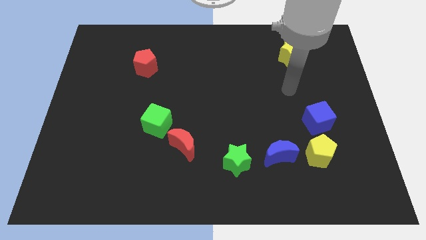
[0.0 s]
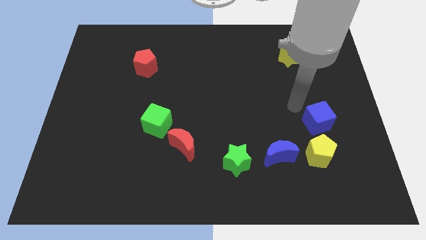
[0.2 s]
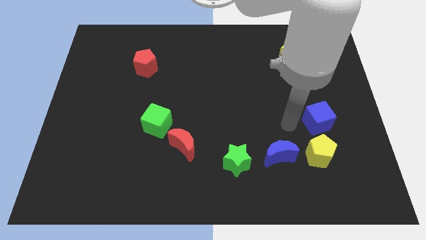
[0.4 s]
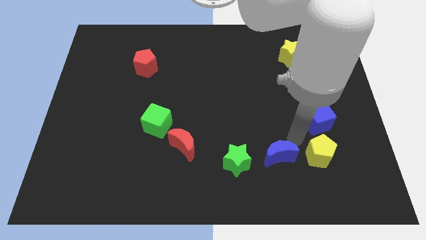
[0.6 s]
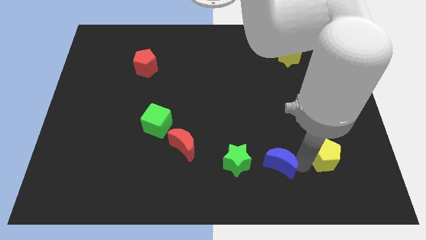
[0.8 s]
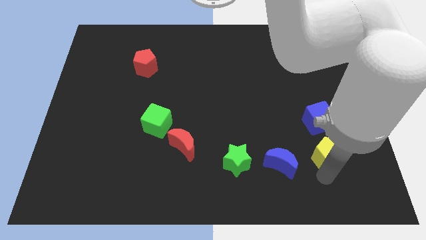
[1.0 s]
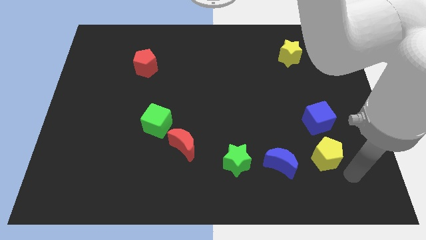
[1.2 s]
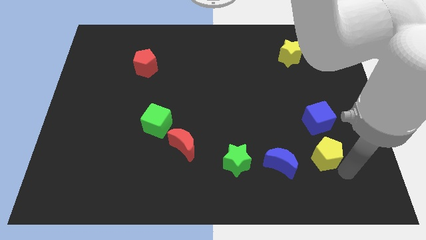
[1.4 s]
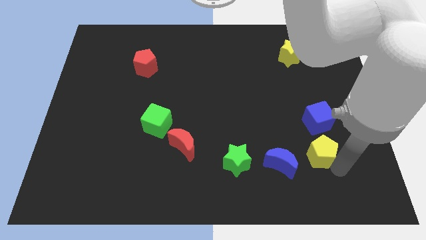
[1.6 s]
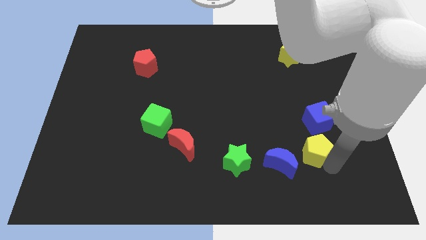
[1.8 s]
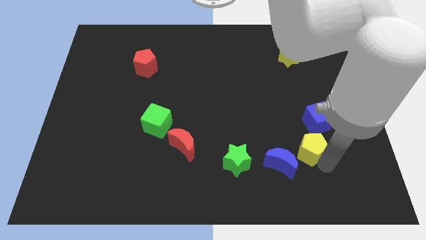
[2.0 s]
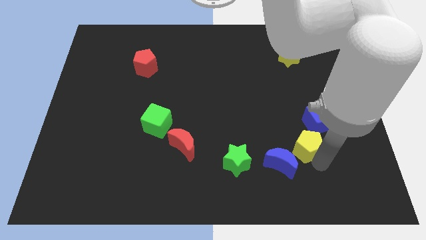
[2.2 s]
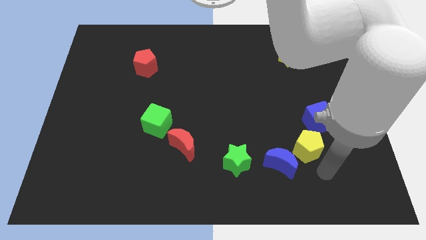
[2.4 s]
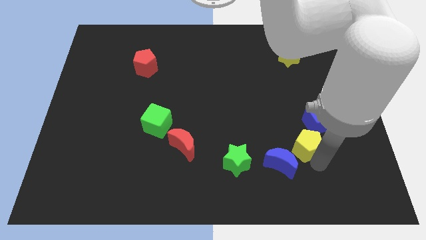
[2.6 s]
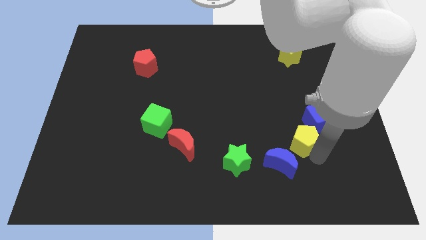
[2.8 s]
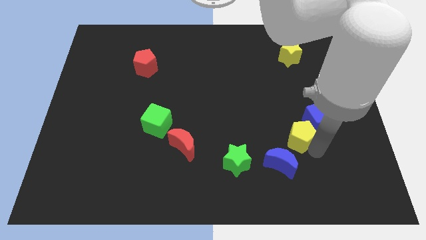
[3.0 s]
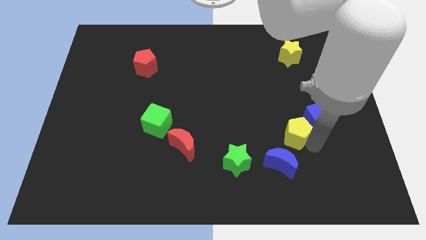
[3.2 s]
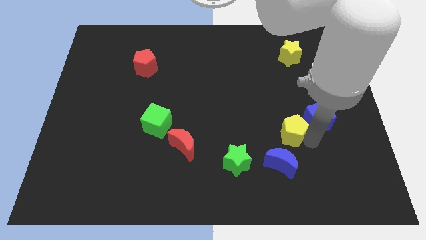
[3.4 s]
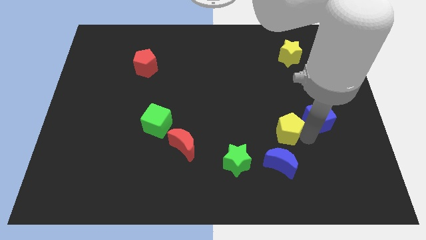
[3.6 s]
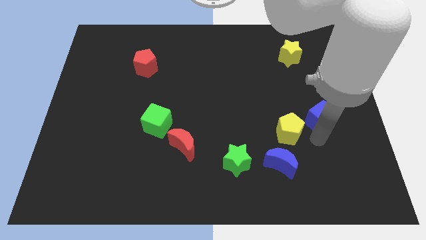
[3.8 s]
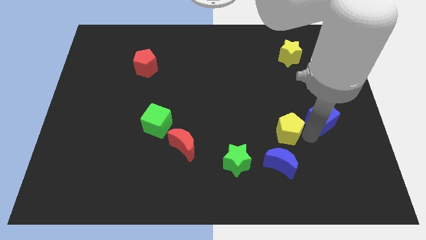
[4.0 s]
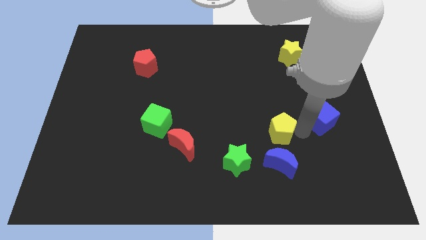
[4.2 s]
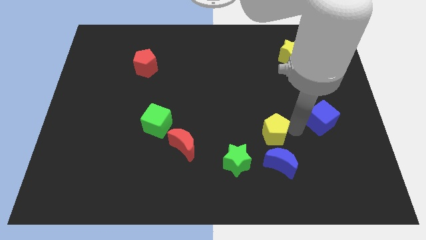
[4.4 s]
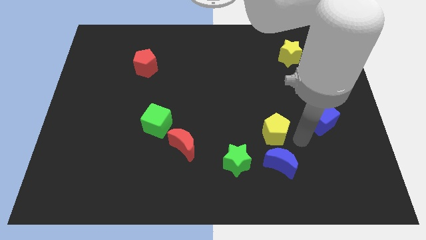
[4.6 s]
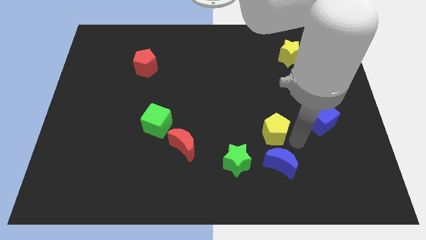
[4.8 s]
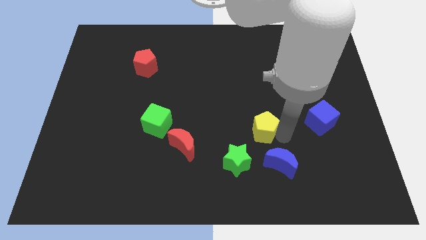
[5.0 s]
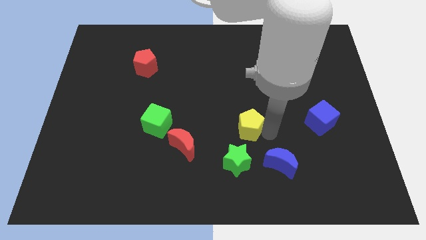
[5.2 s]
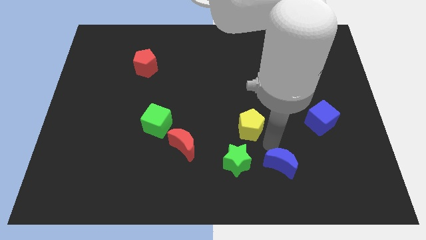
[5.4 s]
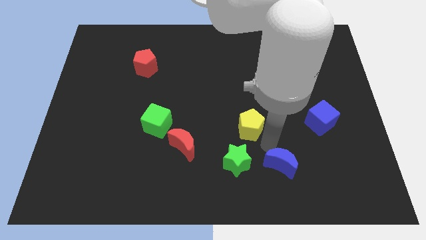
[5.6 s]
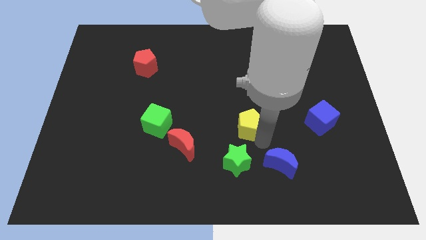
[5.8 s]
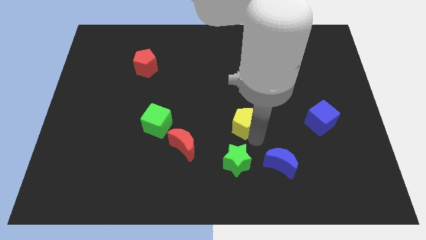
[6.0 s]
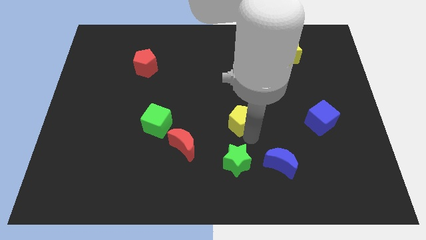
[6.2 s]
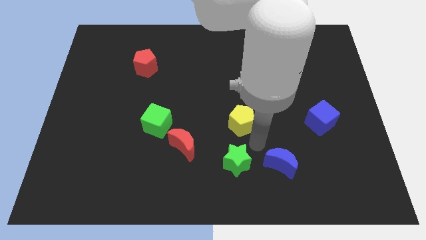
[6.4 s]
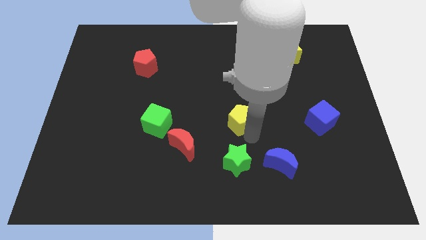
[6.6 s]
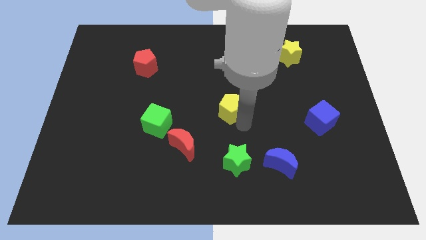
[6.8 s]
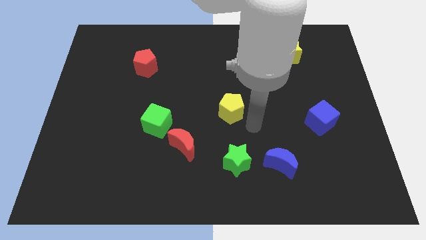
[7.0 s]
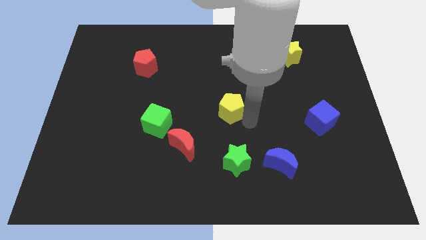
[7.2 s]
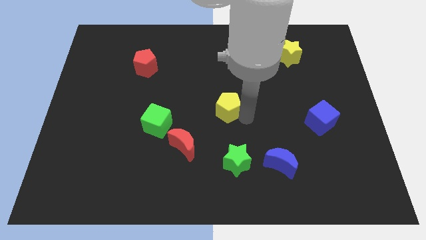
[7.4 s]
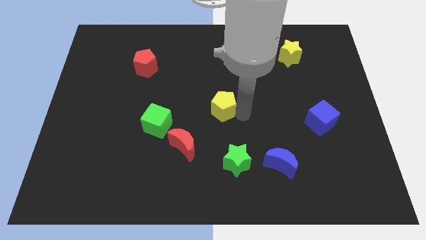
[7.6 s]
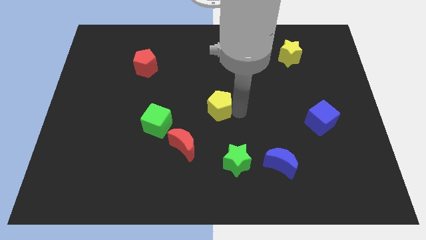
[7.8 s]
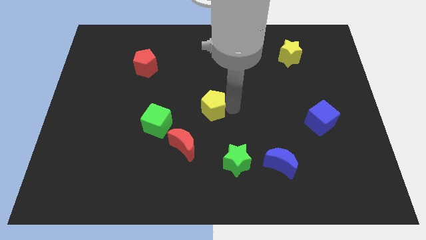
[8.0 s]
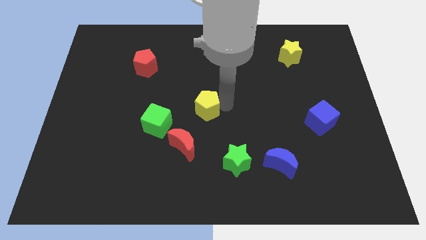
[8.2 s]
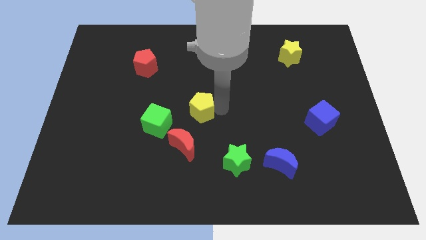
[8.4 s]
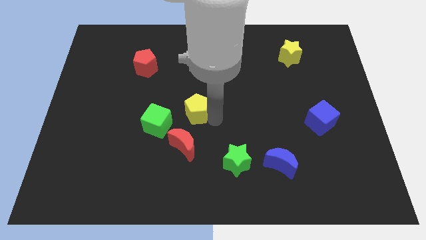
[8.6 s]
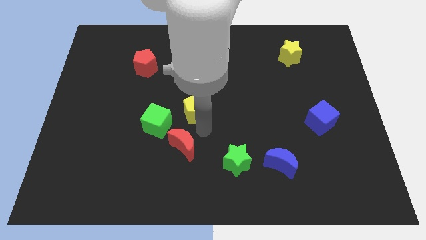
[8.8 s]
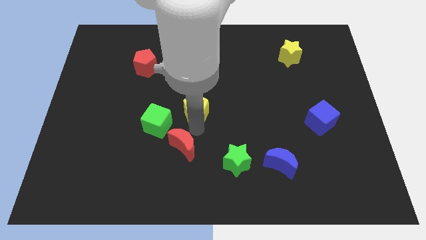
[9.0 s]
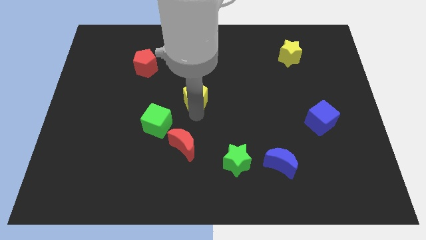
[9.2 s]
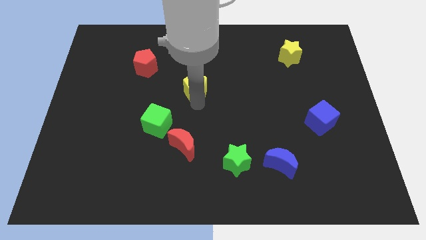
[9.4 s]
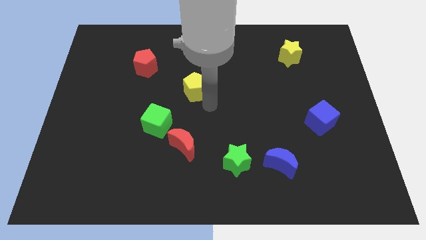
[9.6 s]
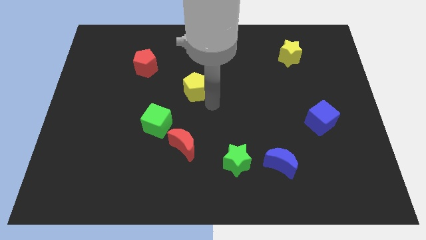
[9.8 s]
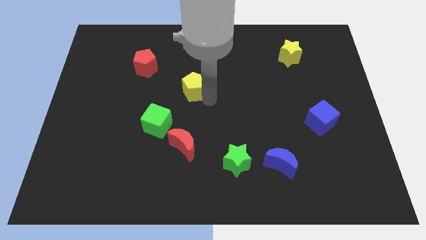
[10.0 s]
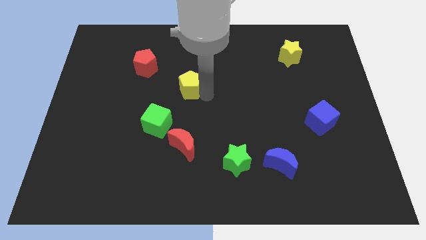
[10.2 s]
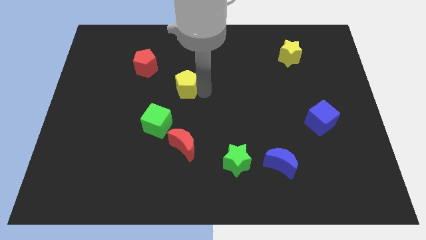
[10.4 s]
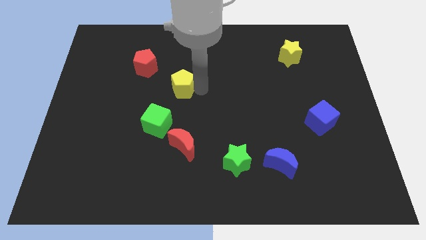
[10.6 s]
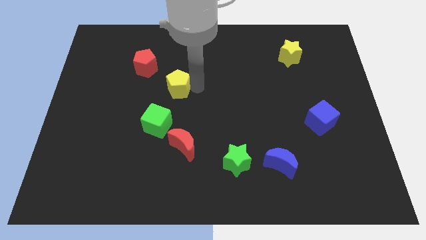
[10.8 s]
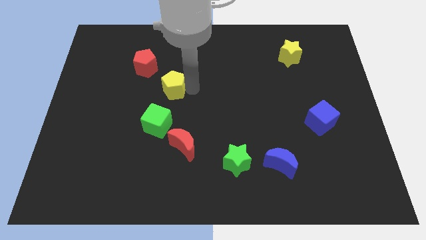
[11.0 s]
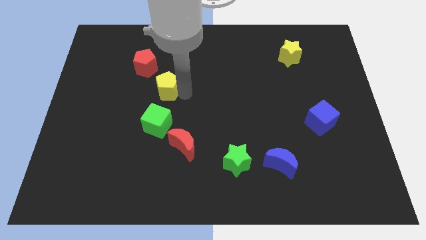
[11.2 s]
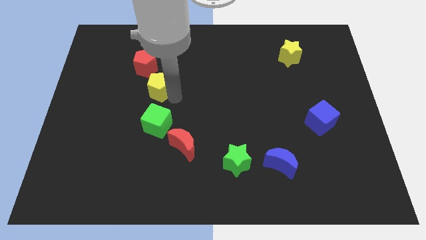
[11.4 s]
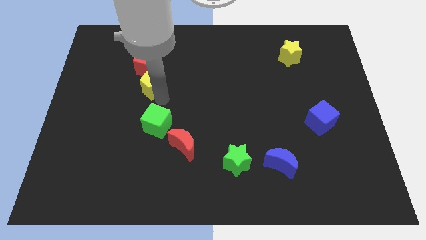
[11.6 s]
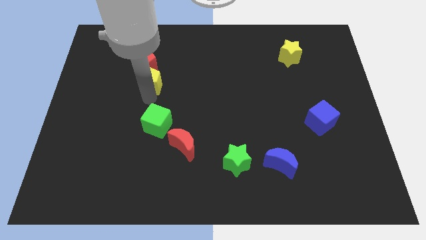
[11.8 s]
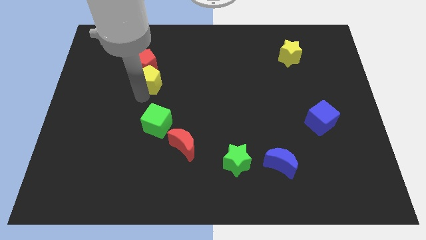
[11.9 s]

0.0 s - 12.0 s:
push the yellow pentagon to the red pentagon

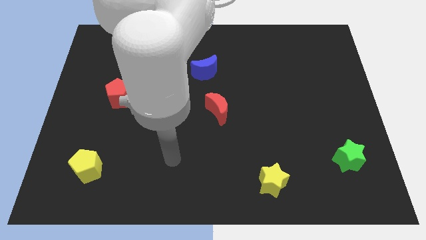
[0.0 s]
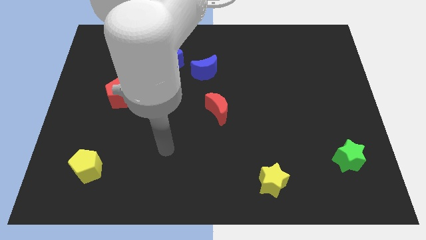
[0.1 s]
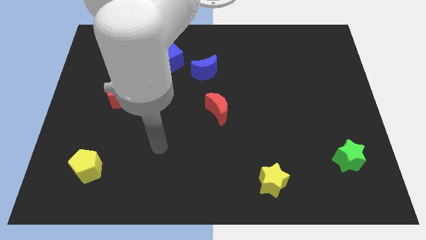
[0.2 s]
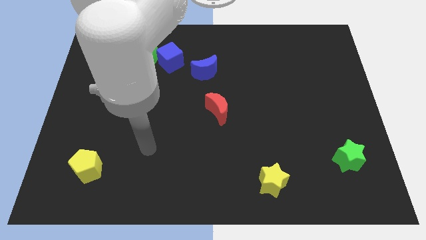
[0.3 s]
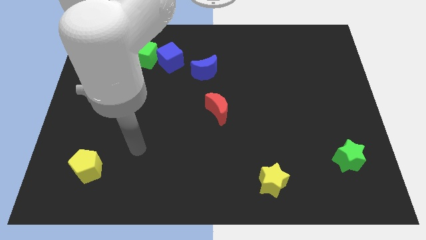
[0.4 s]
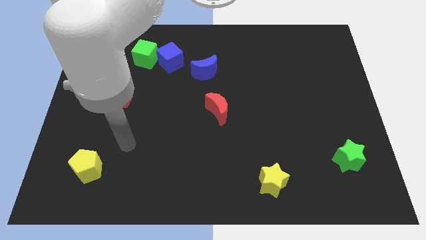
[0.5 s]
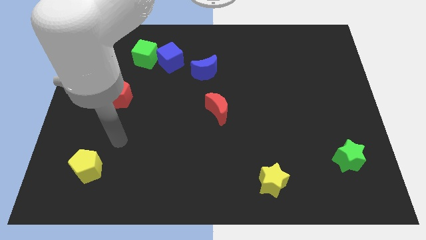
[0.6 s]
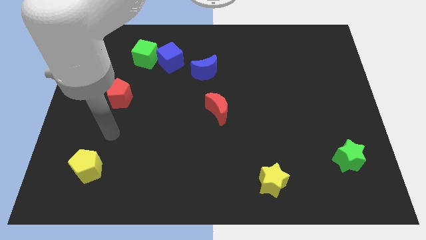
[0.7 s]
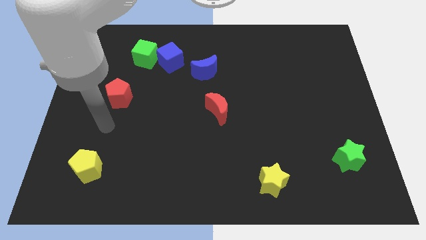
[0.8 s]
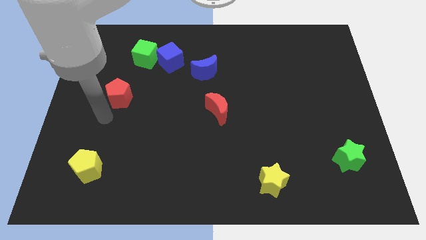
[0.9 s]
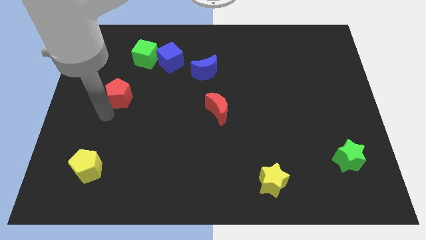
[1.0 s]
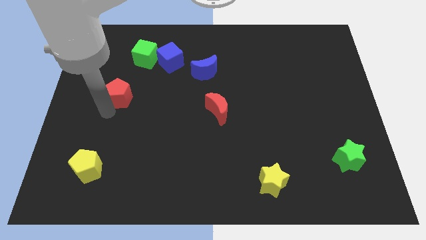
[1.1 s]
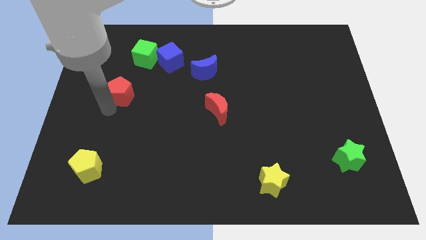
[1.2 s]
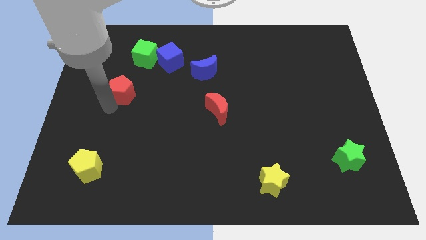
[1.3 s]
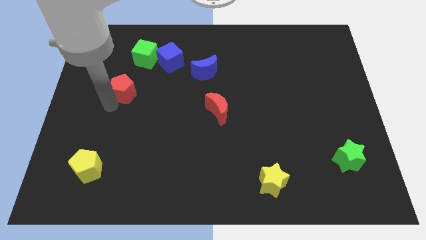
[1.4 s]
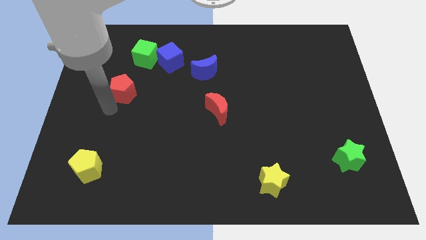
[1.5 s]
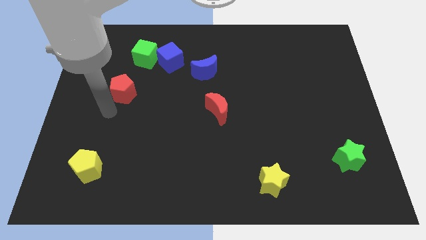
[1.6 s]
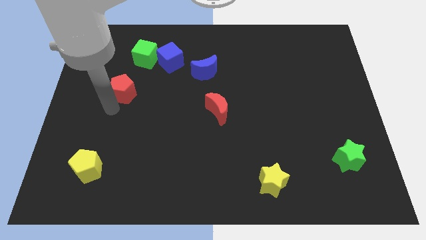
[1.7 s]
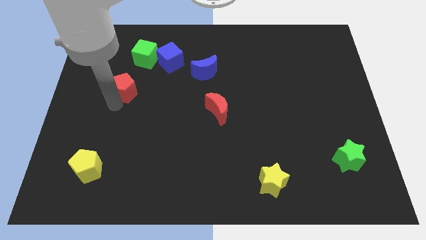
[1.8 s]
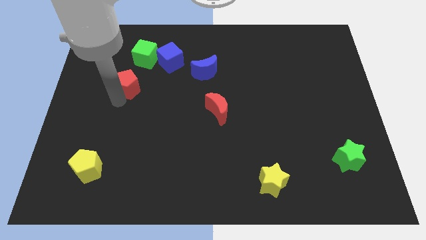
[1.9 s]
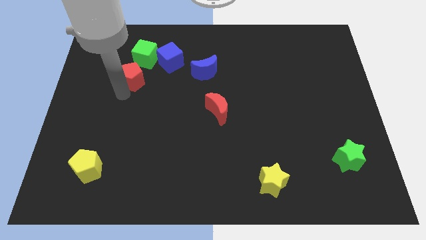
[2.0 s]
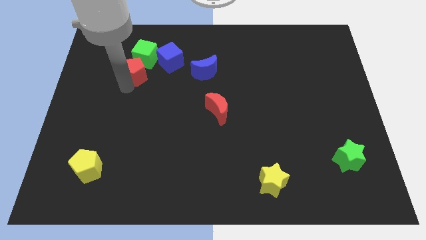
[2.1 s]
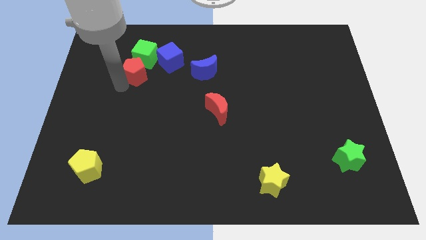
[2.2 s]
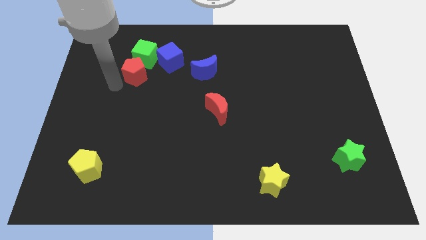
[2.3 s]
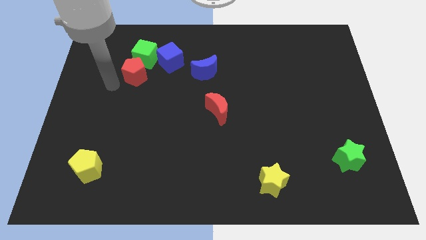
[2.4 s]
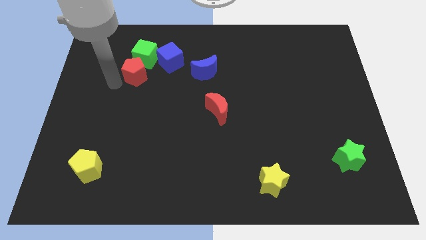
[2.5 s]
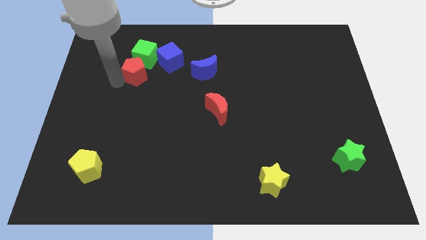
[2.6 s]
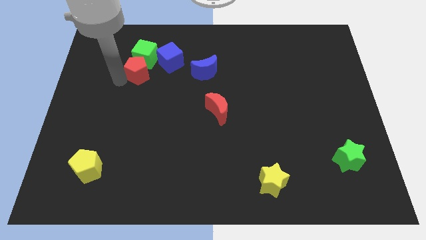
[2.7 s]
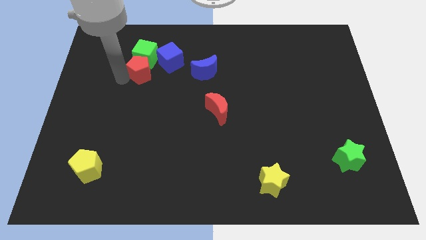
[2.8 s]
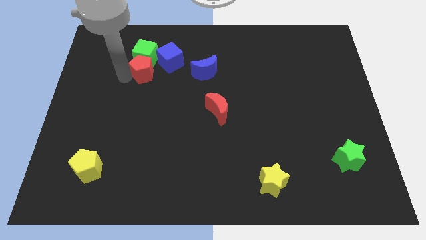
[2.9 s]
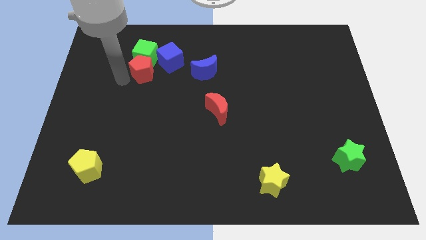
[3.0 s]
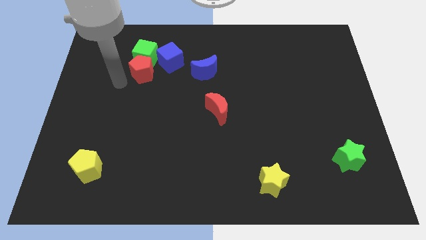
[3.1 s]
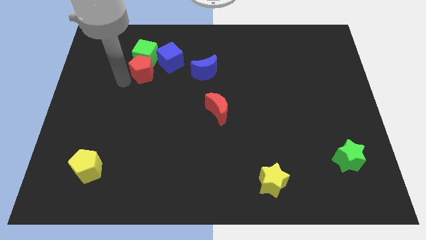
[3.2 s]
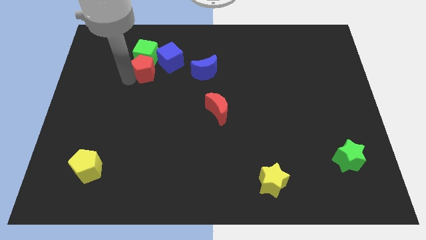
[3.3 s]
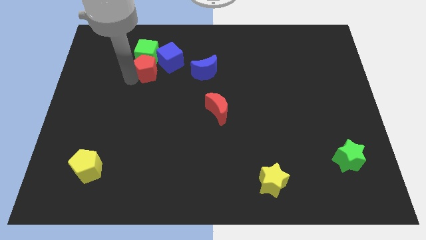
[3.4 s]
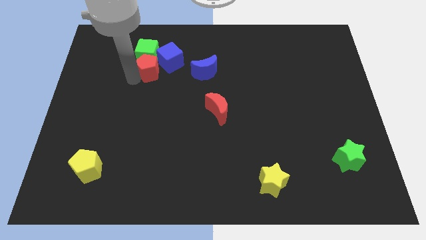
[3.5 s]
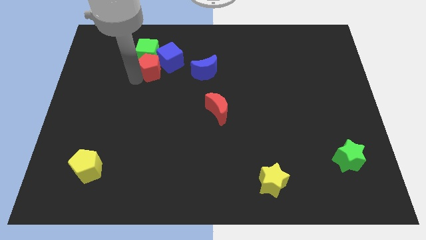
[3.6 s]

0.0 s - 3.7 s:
slide the red pentagon to the blue cube
